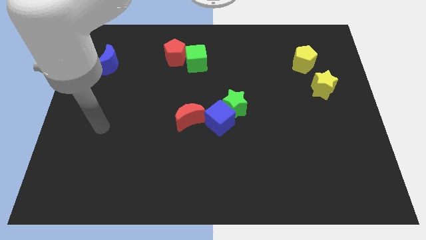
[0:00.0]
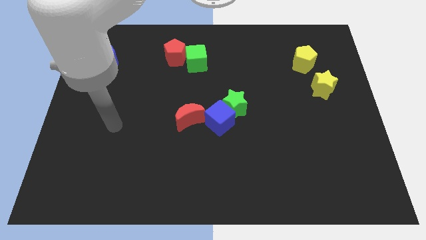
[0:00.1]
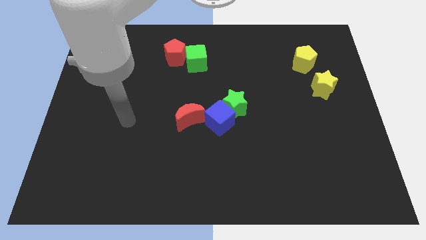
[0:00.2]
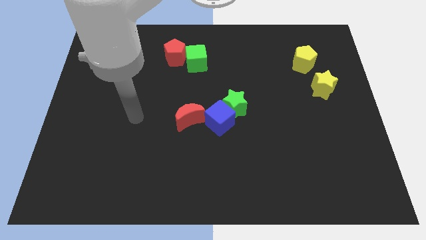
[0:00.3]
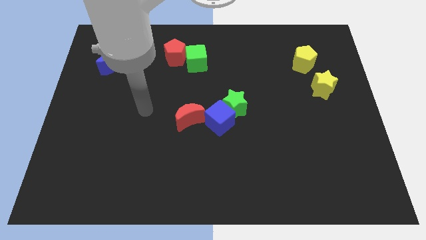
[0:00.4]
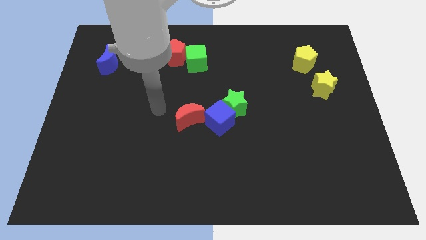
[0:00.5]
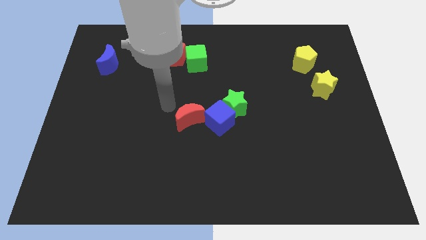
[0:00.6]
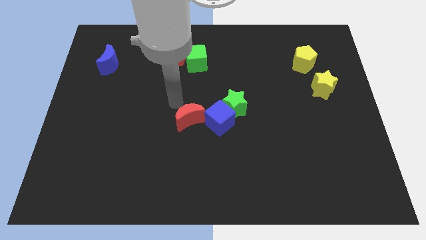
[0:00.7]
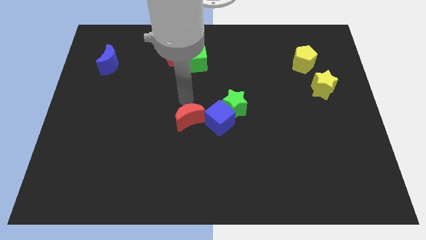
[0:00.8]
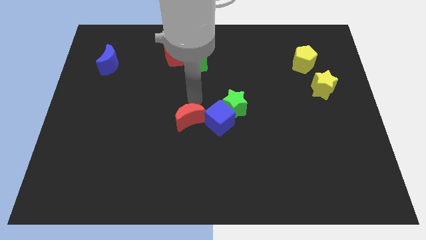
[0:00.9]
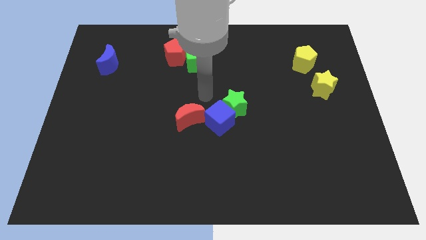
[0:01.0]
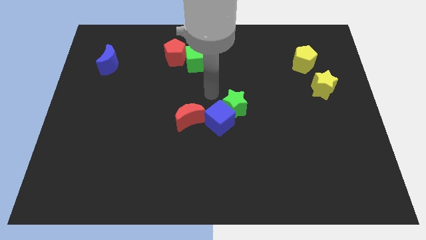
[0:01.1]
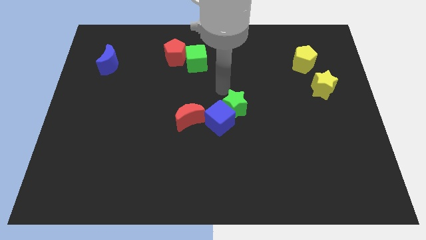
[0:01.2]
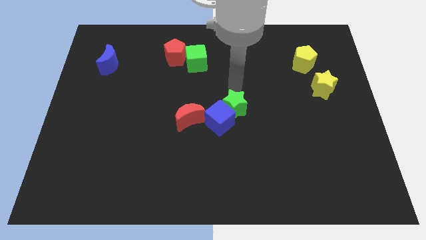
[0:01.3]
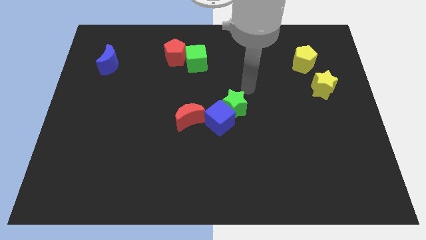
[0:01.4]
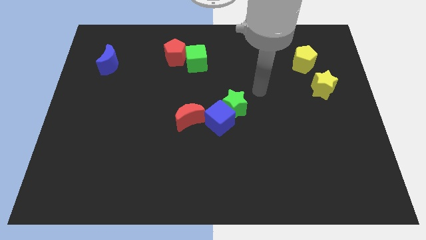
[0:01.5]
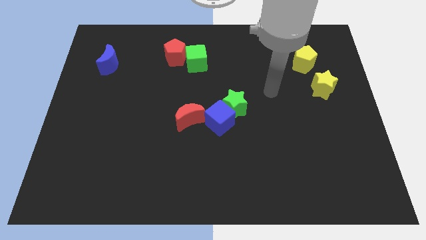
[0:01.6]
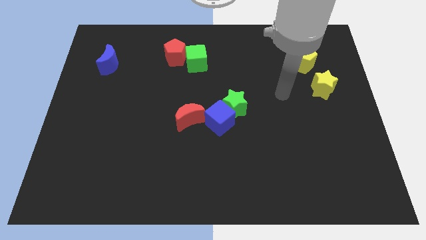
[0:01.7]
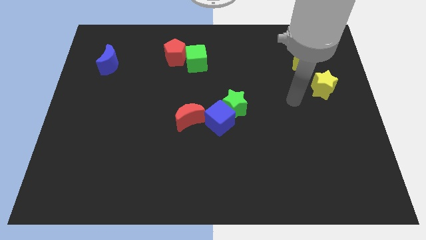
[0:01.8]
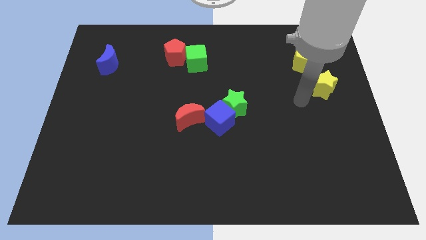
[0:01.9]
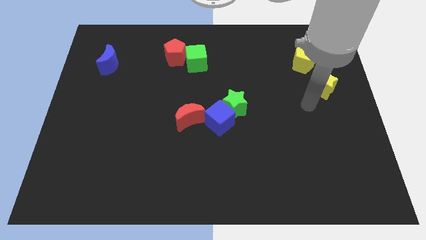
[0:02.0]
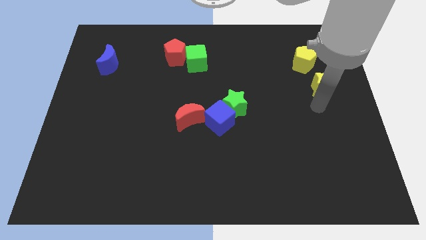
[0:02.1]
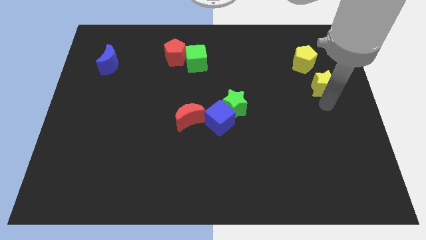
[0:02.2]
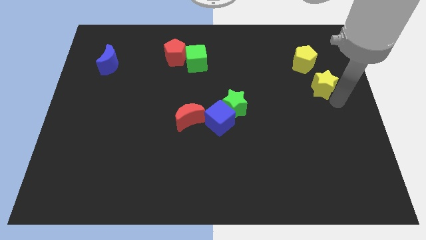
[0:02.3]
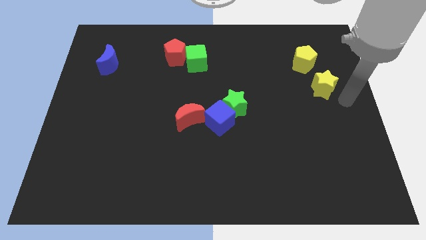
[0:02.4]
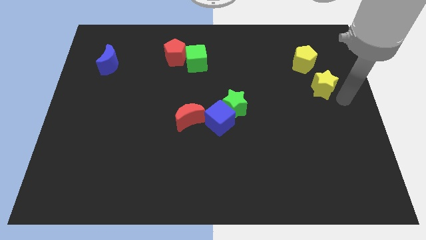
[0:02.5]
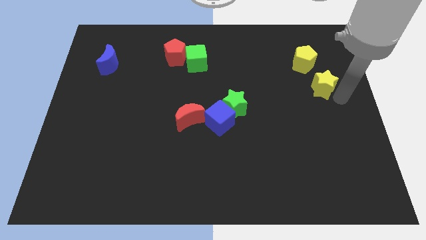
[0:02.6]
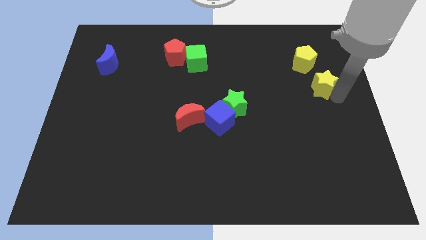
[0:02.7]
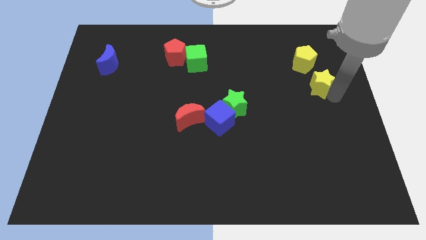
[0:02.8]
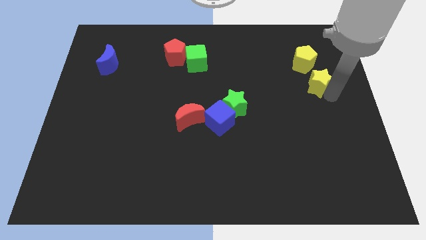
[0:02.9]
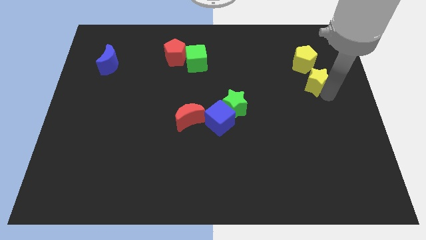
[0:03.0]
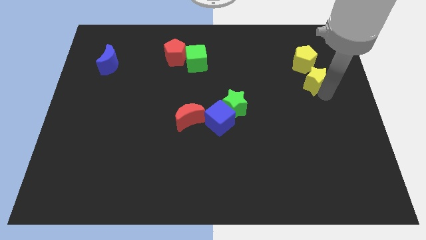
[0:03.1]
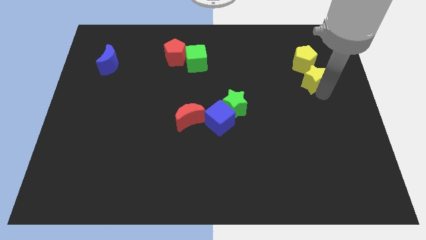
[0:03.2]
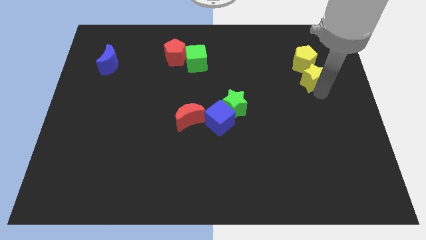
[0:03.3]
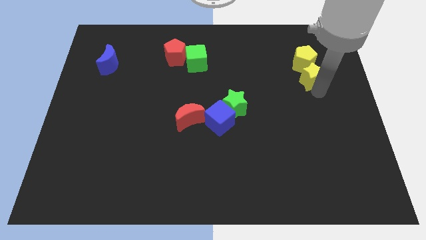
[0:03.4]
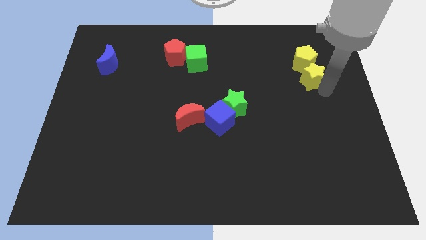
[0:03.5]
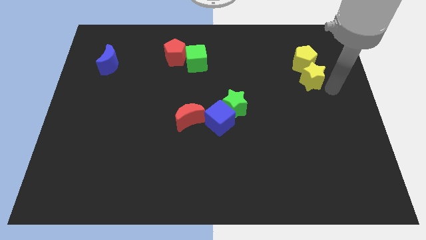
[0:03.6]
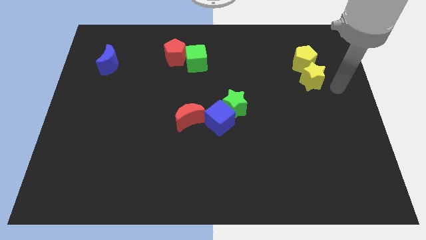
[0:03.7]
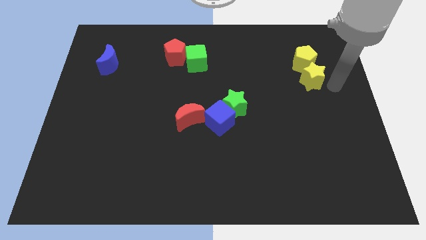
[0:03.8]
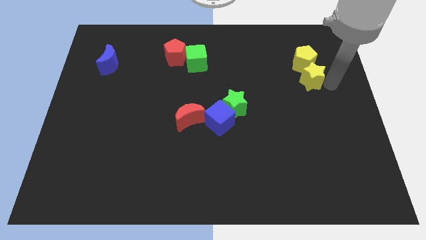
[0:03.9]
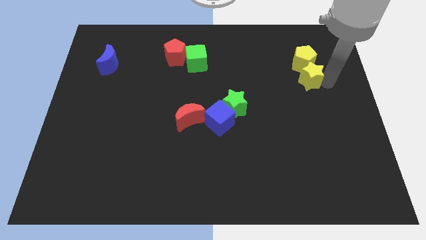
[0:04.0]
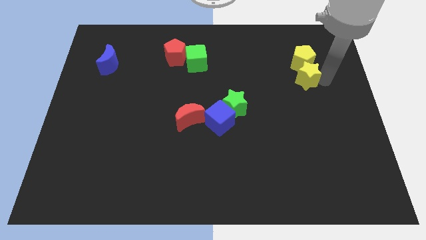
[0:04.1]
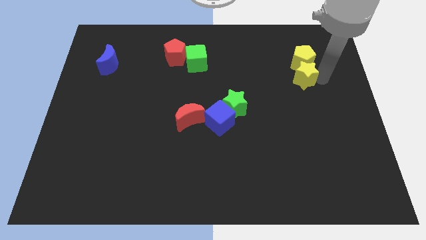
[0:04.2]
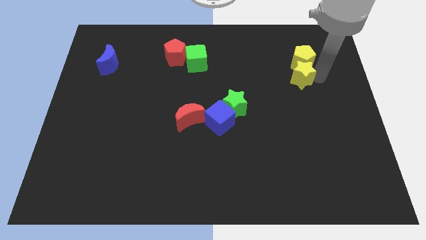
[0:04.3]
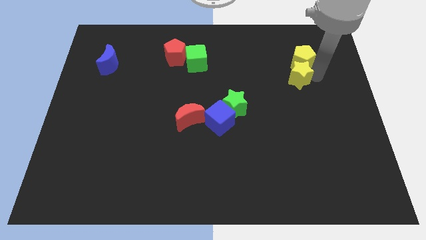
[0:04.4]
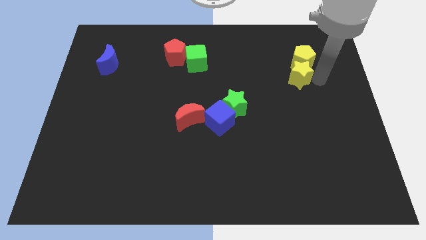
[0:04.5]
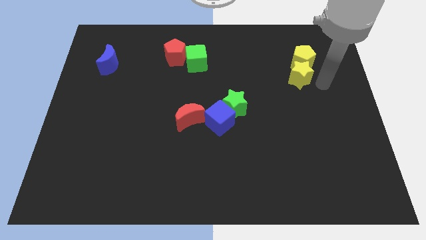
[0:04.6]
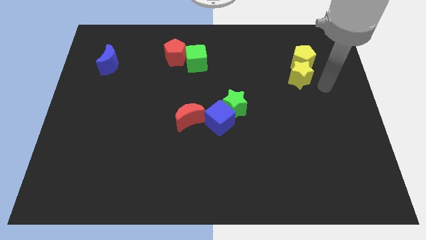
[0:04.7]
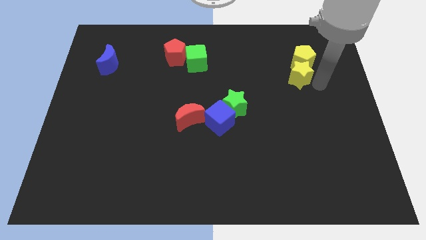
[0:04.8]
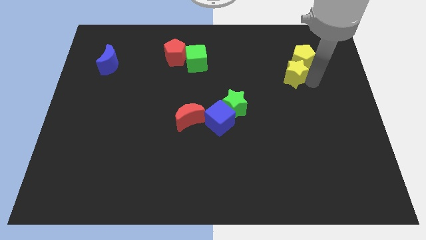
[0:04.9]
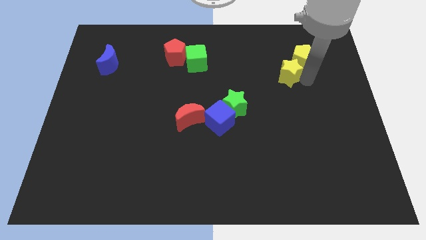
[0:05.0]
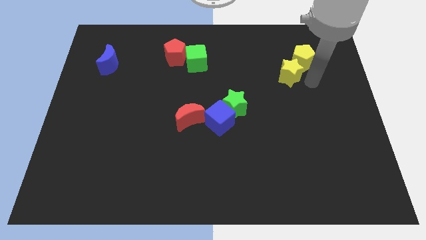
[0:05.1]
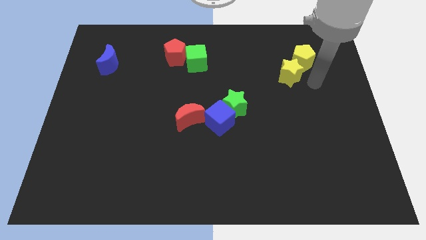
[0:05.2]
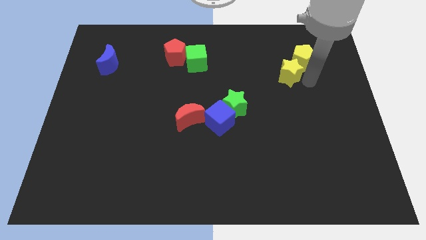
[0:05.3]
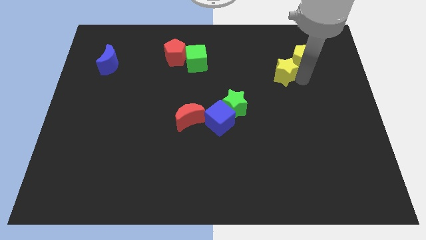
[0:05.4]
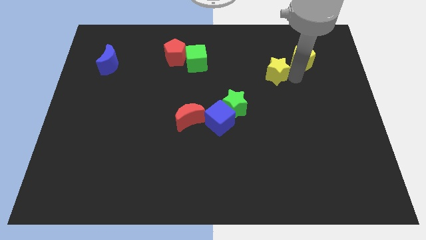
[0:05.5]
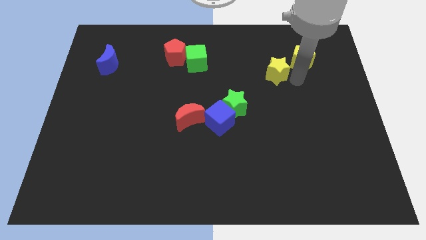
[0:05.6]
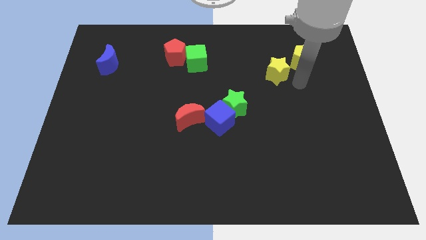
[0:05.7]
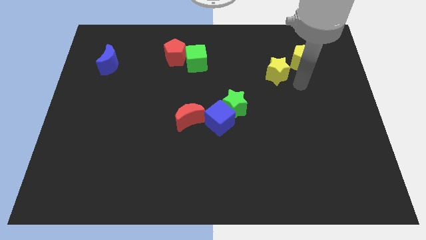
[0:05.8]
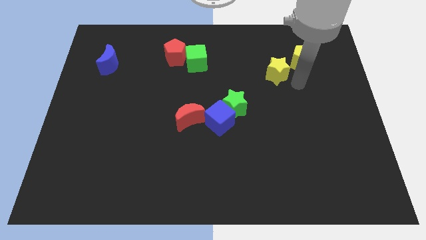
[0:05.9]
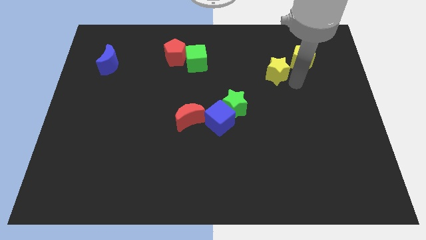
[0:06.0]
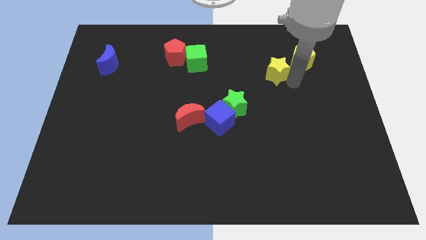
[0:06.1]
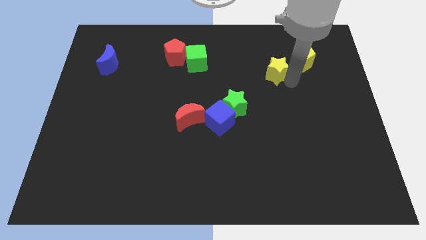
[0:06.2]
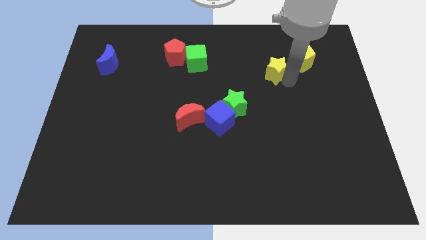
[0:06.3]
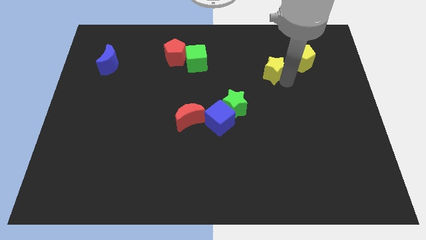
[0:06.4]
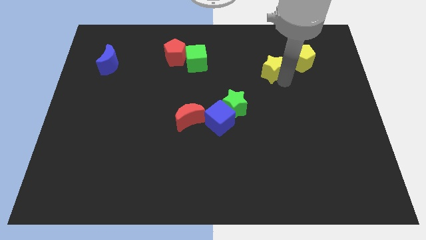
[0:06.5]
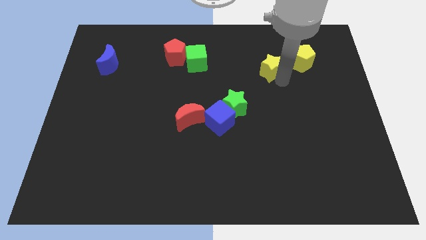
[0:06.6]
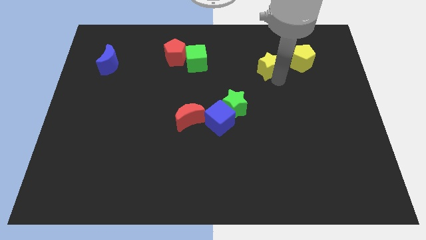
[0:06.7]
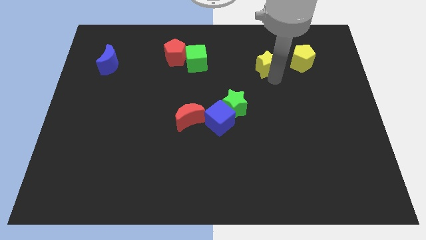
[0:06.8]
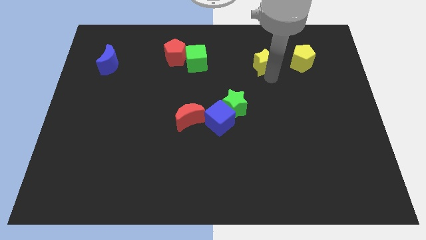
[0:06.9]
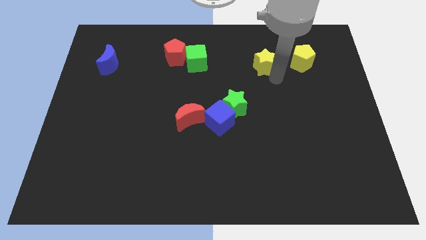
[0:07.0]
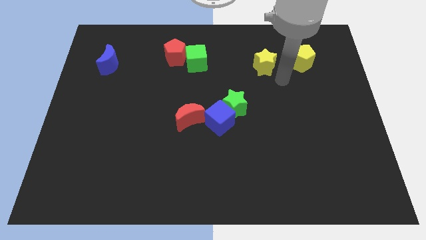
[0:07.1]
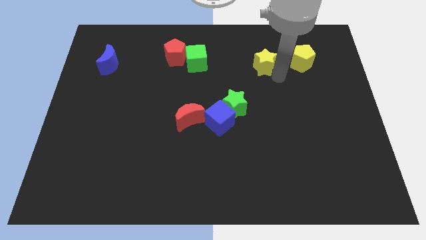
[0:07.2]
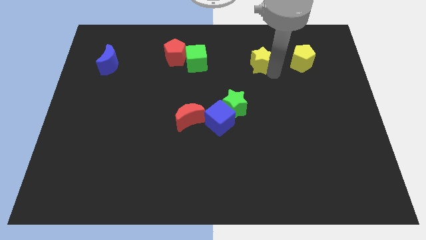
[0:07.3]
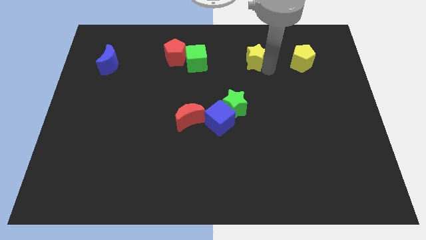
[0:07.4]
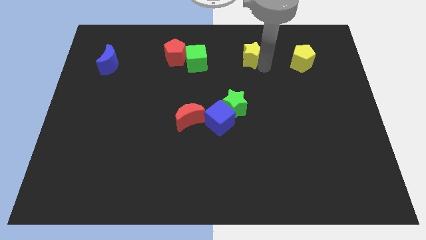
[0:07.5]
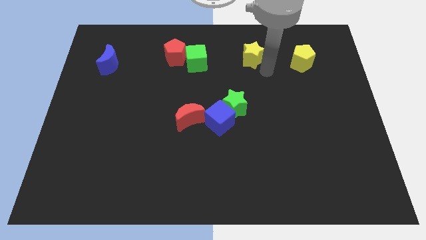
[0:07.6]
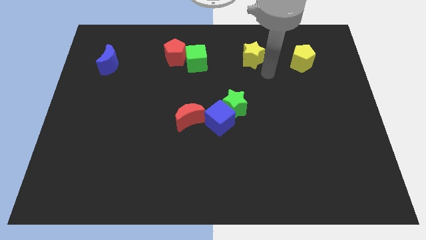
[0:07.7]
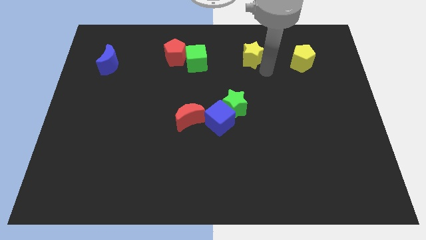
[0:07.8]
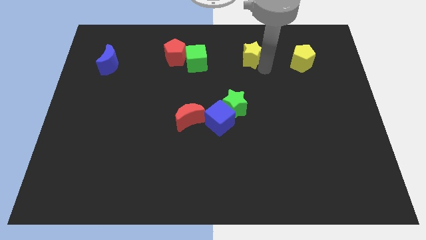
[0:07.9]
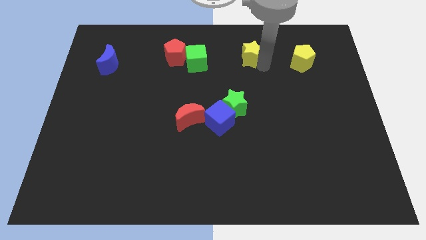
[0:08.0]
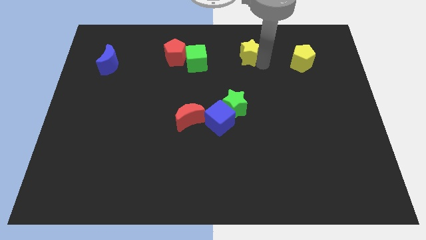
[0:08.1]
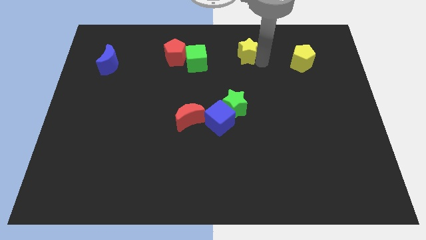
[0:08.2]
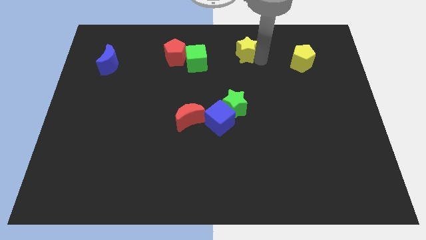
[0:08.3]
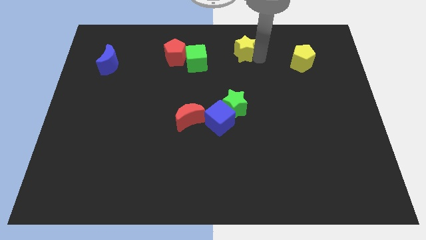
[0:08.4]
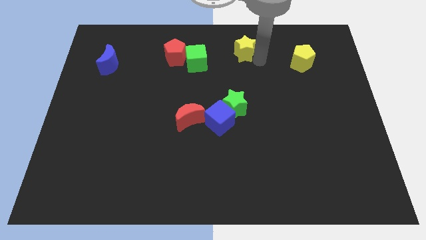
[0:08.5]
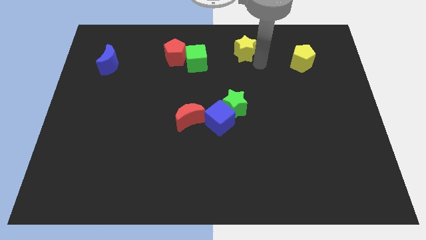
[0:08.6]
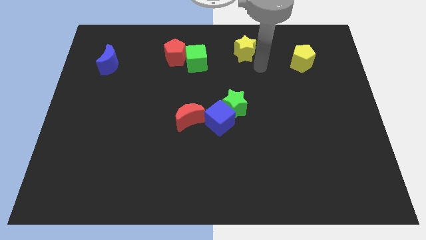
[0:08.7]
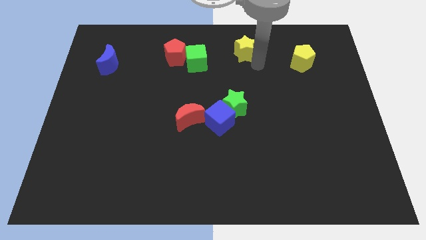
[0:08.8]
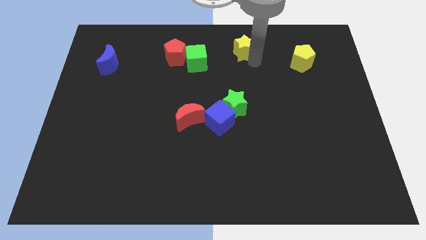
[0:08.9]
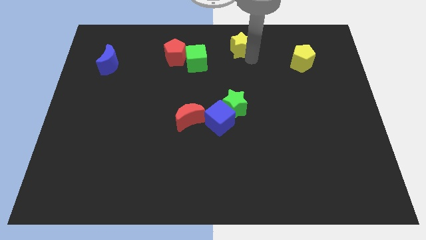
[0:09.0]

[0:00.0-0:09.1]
push the yellow star to the top
